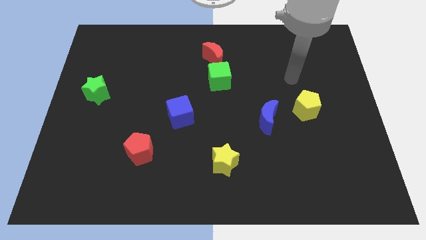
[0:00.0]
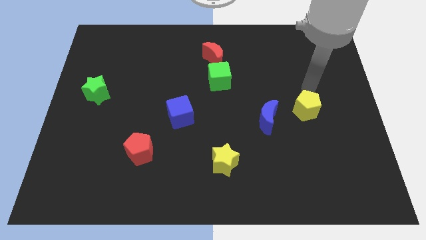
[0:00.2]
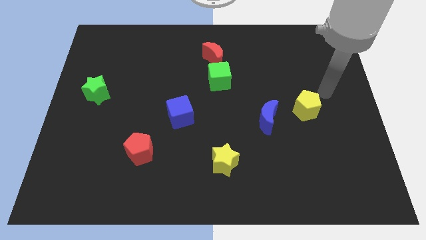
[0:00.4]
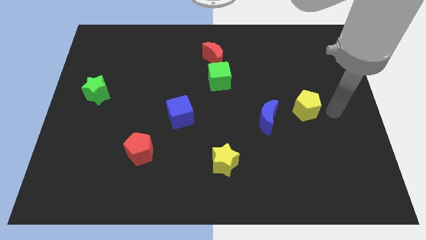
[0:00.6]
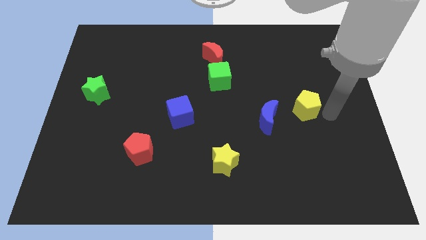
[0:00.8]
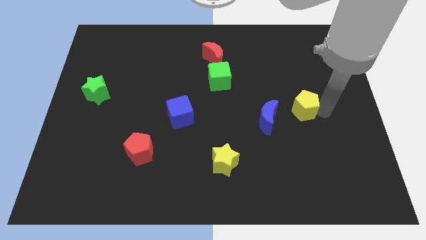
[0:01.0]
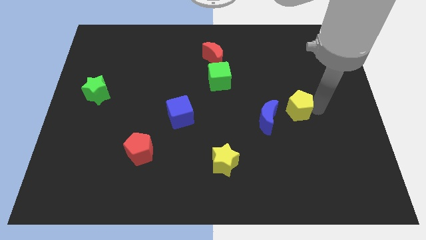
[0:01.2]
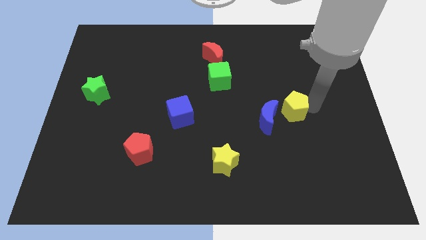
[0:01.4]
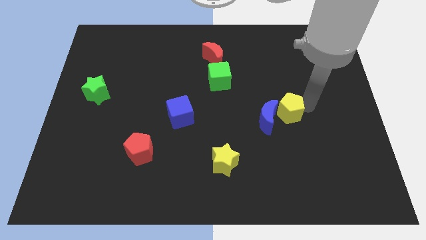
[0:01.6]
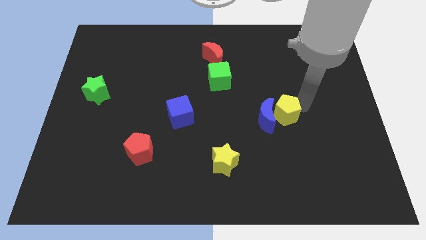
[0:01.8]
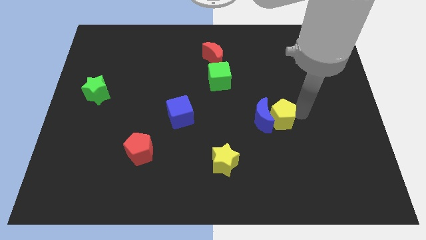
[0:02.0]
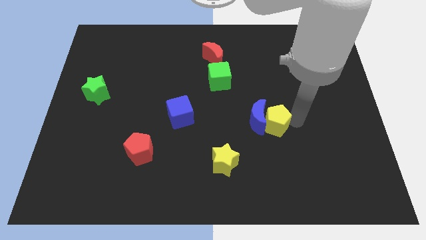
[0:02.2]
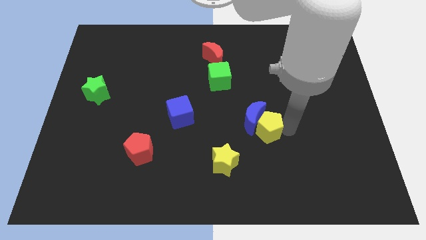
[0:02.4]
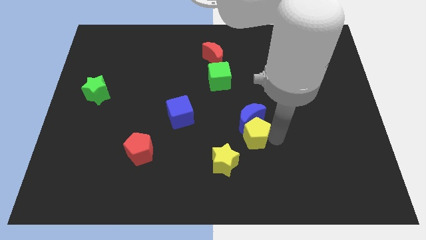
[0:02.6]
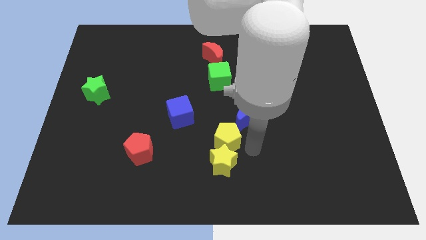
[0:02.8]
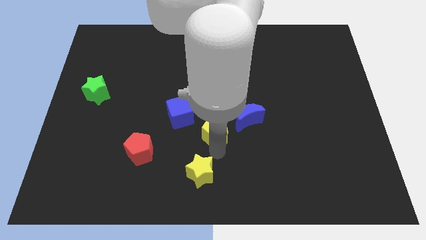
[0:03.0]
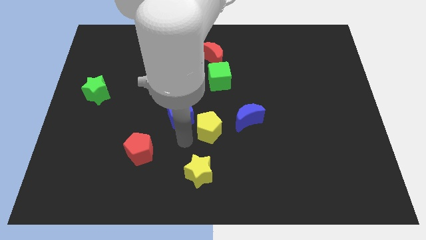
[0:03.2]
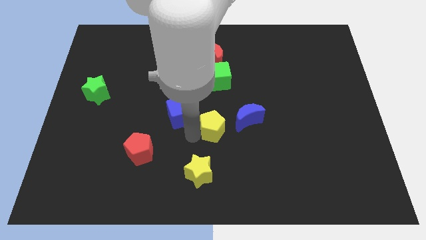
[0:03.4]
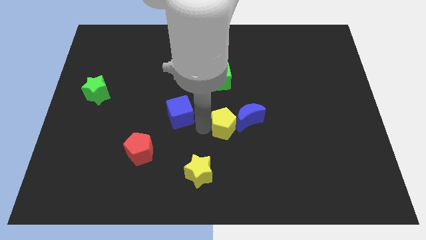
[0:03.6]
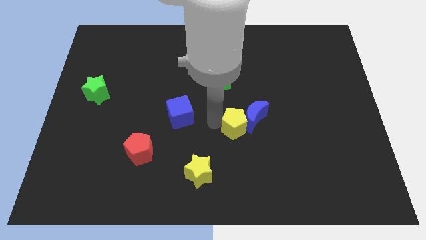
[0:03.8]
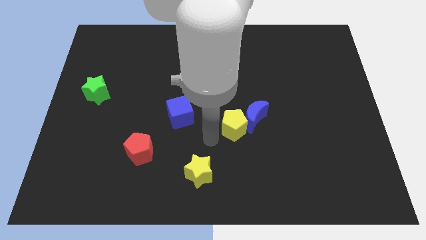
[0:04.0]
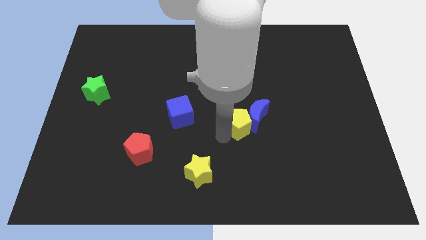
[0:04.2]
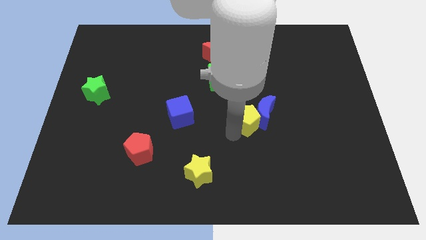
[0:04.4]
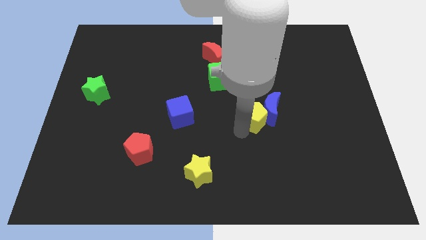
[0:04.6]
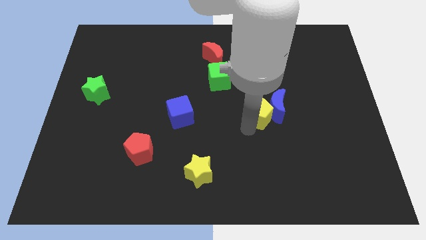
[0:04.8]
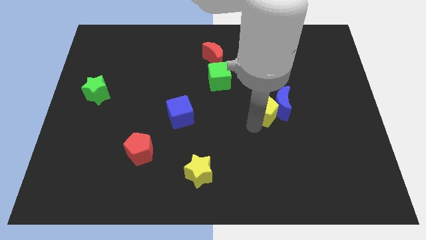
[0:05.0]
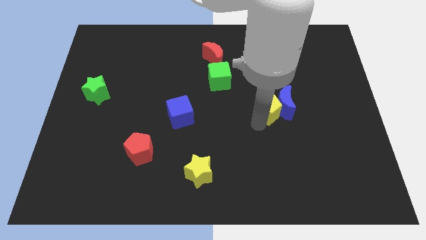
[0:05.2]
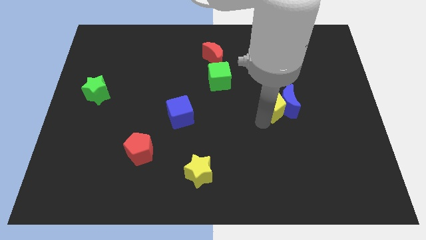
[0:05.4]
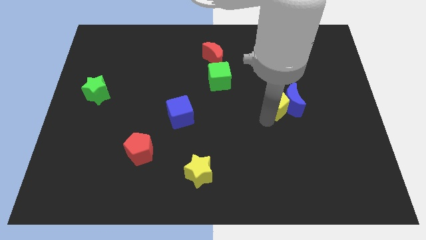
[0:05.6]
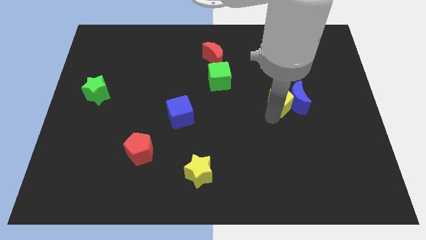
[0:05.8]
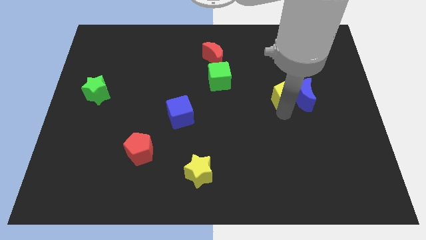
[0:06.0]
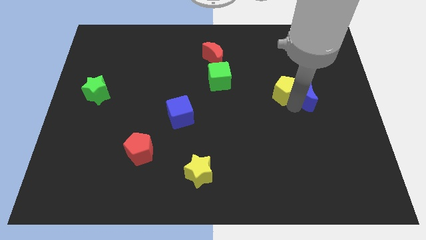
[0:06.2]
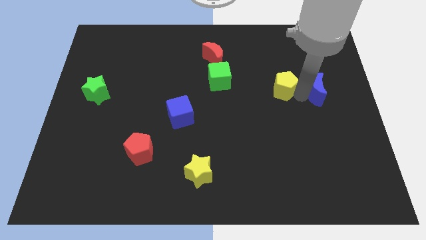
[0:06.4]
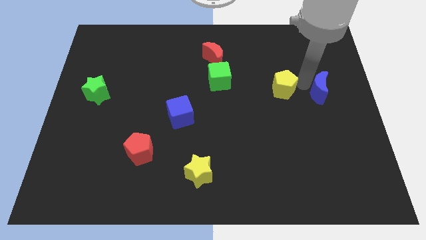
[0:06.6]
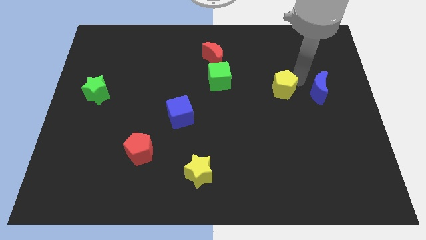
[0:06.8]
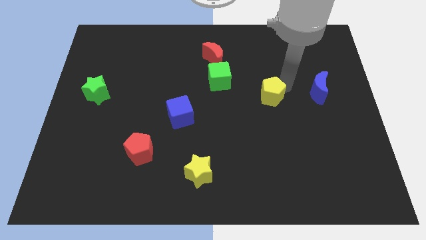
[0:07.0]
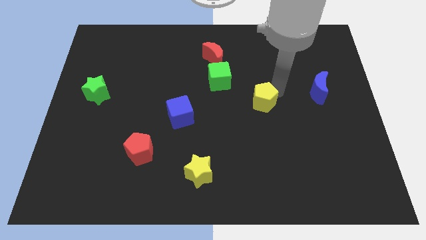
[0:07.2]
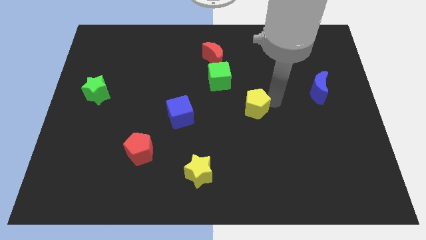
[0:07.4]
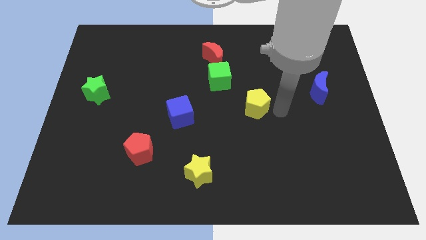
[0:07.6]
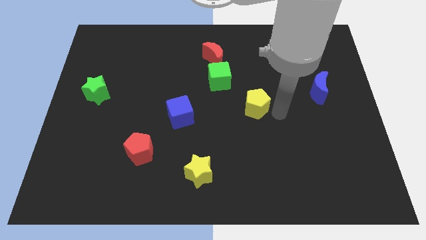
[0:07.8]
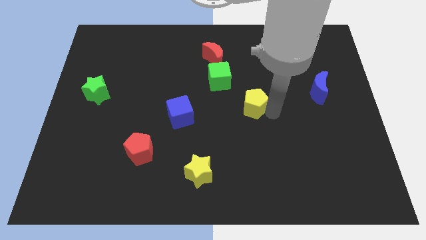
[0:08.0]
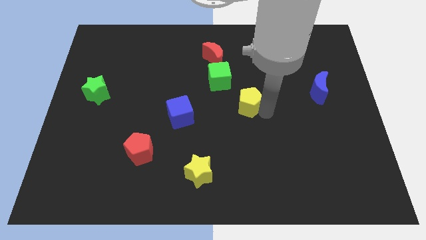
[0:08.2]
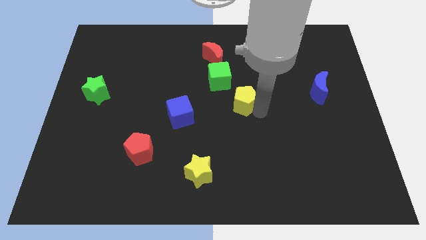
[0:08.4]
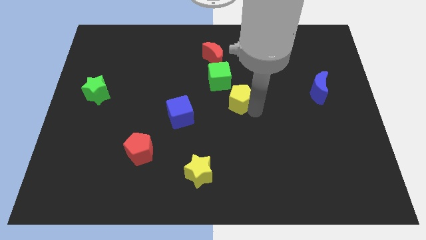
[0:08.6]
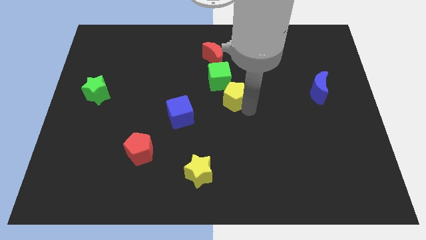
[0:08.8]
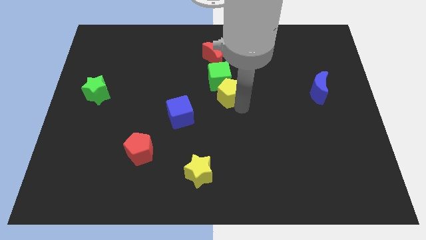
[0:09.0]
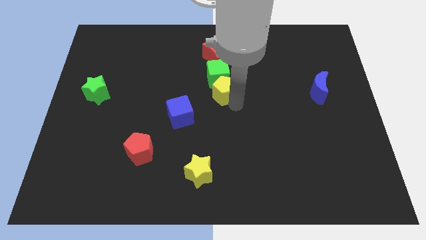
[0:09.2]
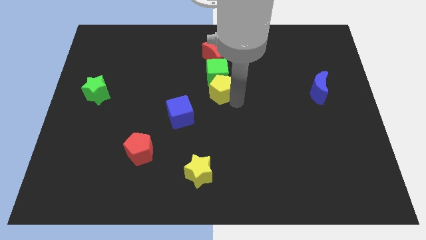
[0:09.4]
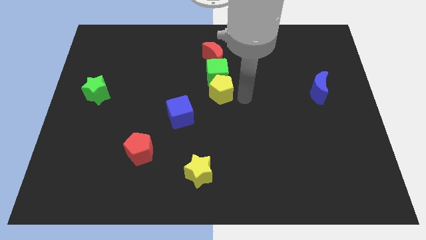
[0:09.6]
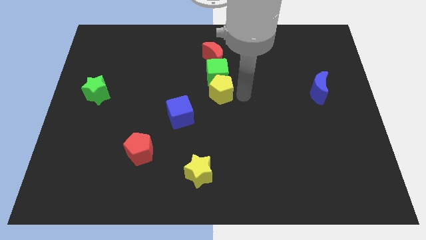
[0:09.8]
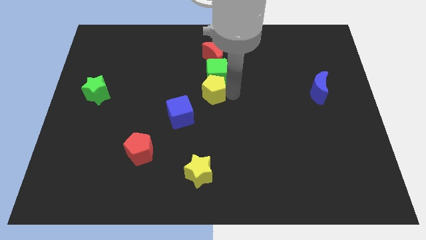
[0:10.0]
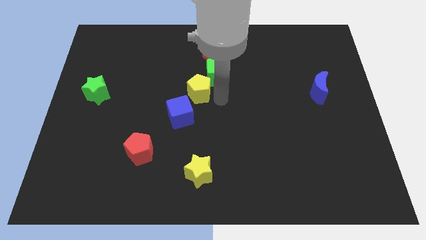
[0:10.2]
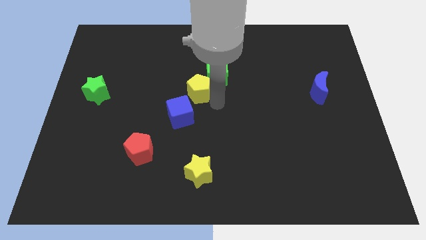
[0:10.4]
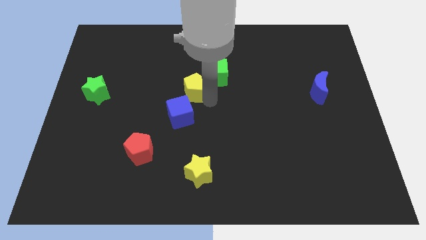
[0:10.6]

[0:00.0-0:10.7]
push the yellow pentagon to the left of the green cube

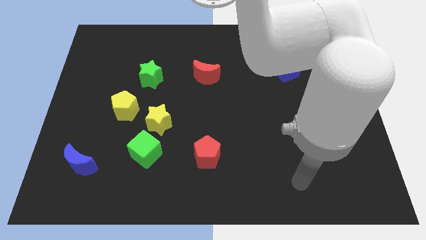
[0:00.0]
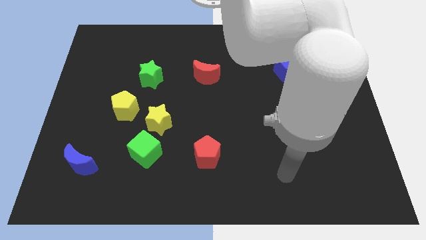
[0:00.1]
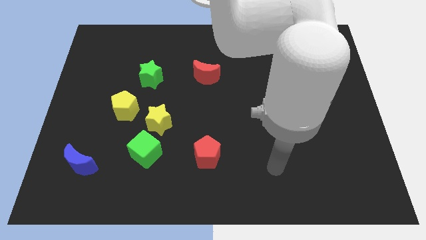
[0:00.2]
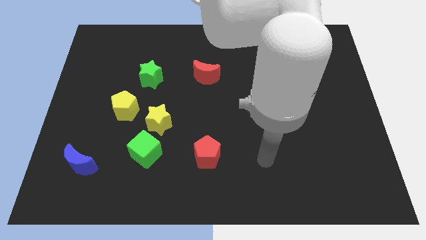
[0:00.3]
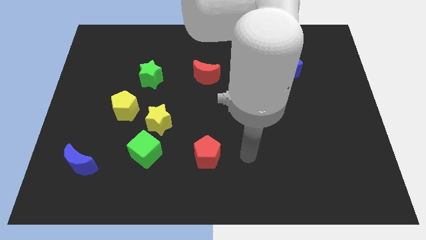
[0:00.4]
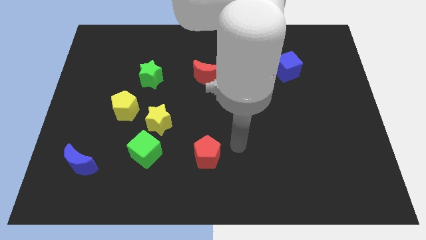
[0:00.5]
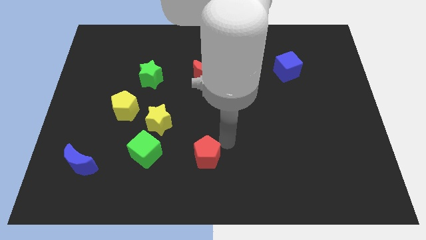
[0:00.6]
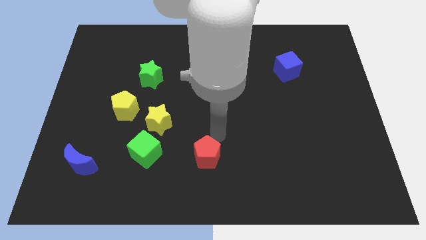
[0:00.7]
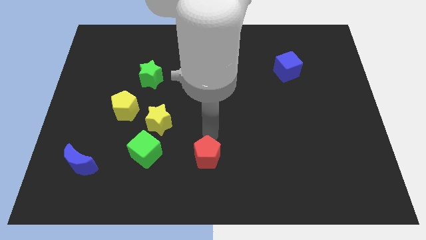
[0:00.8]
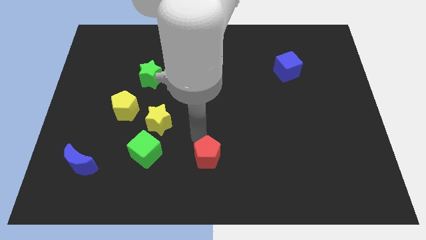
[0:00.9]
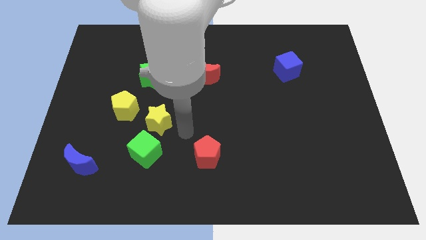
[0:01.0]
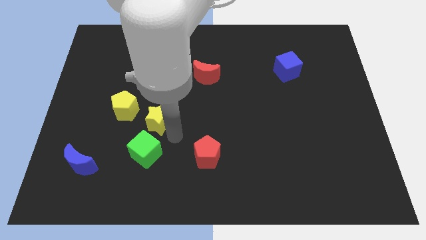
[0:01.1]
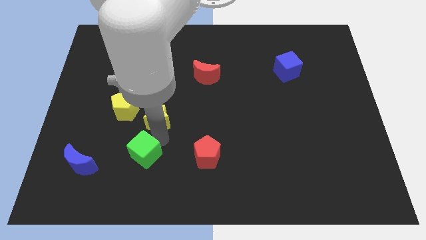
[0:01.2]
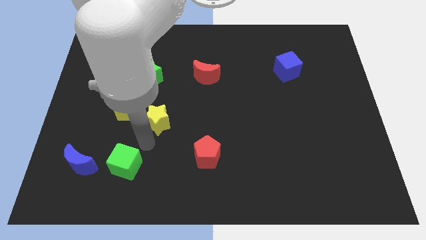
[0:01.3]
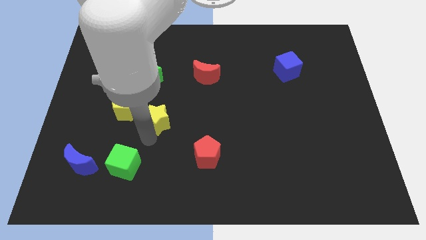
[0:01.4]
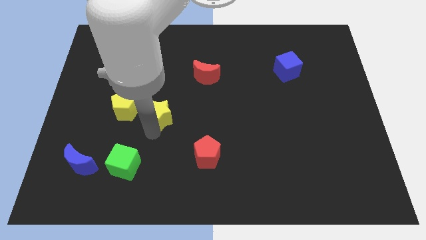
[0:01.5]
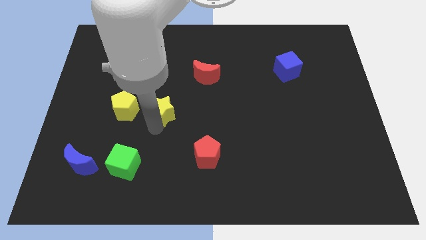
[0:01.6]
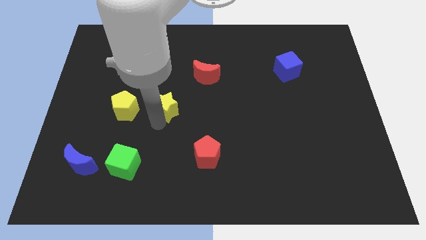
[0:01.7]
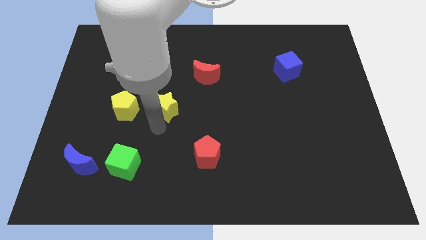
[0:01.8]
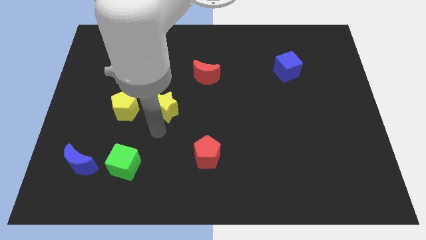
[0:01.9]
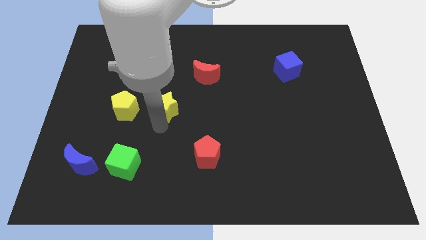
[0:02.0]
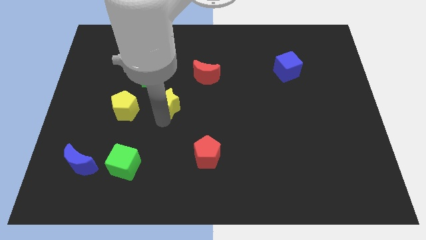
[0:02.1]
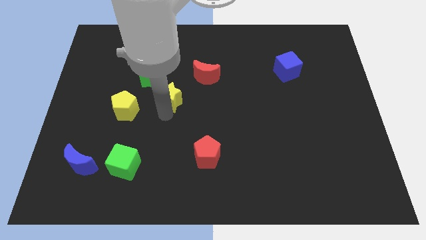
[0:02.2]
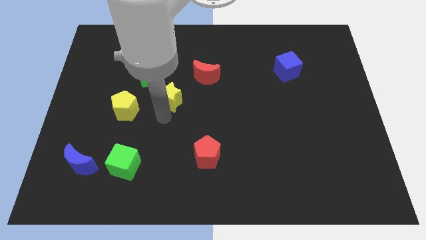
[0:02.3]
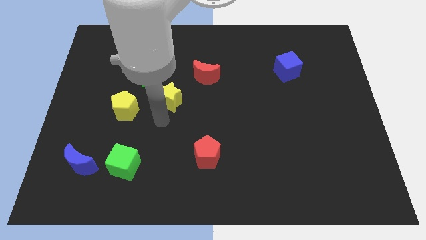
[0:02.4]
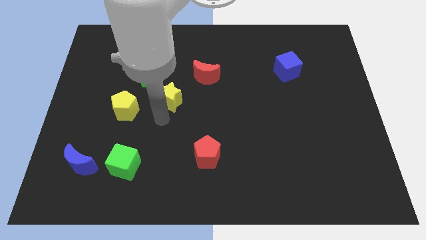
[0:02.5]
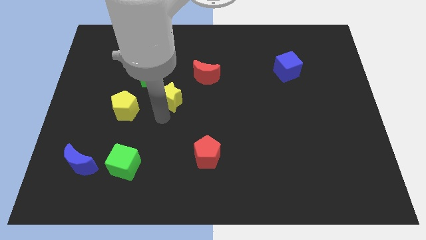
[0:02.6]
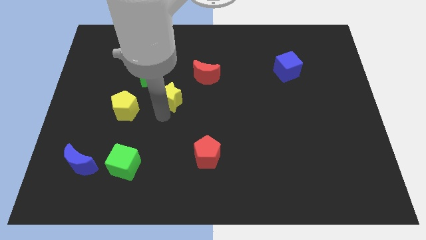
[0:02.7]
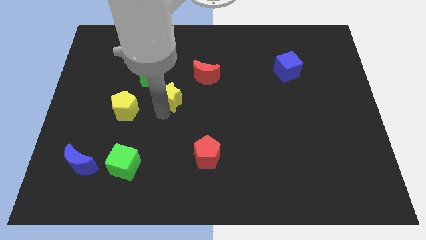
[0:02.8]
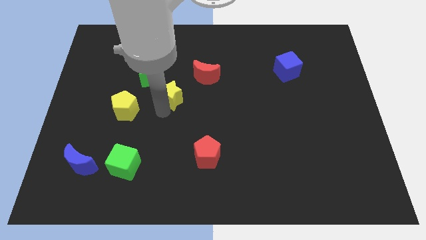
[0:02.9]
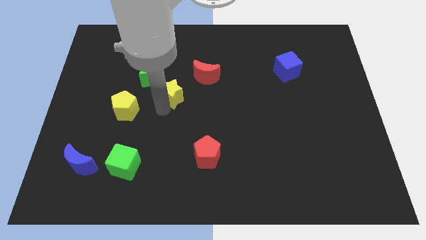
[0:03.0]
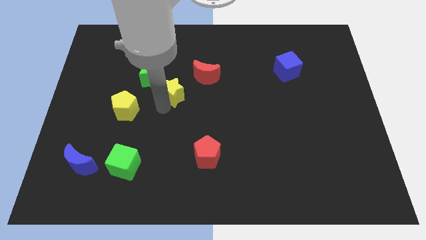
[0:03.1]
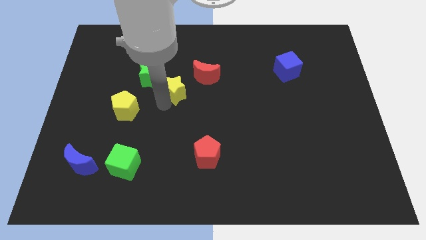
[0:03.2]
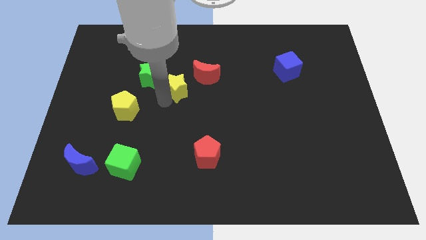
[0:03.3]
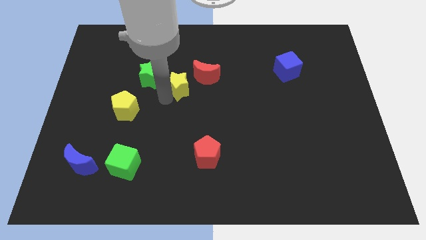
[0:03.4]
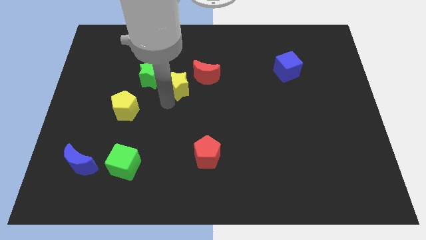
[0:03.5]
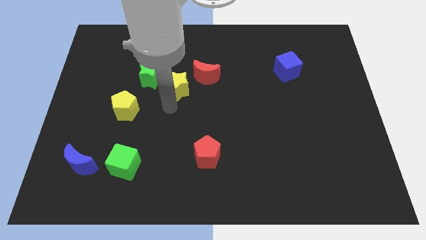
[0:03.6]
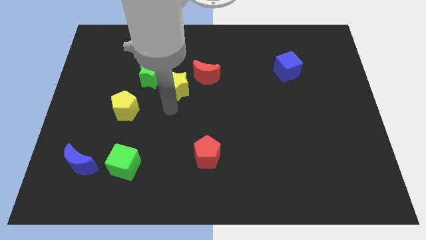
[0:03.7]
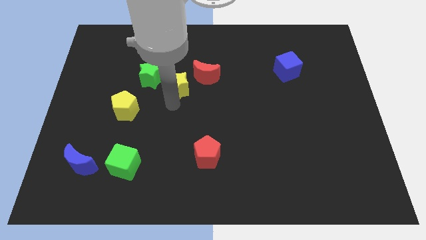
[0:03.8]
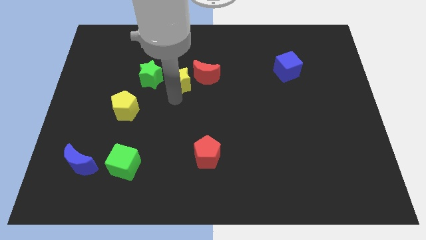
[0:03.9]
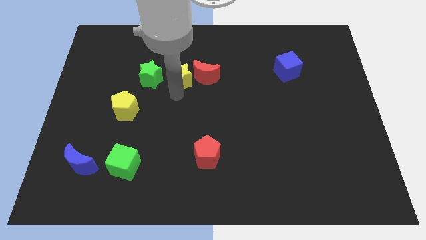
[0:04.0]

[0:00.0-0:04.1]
put the yellow star to the top left of the red moon
